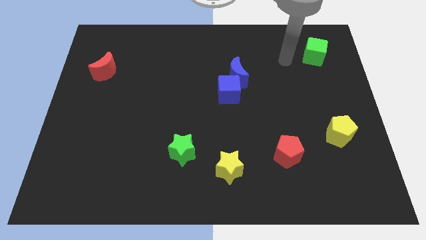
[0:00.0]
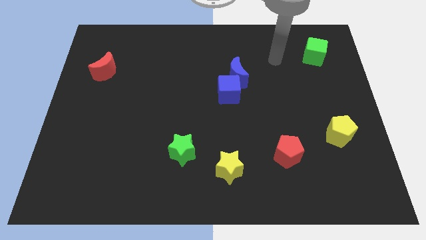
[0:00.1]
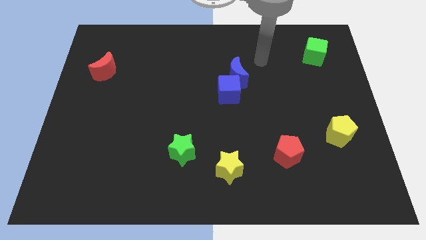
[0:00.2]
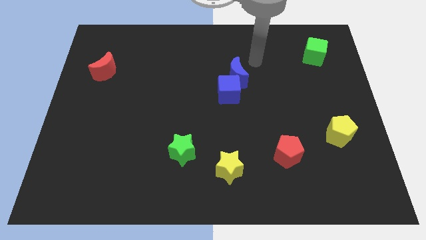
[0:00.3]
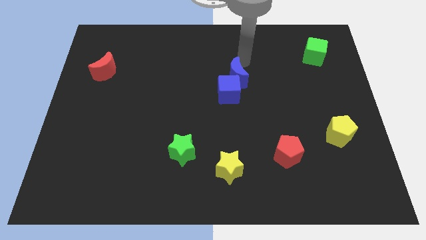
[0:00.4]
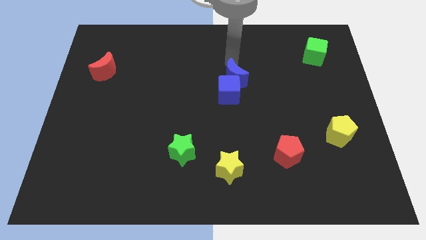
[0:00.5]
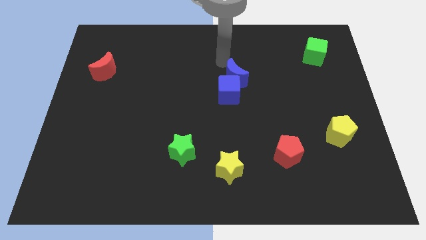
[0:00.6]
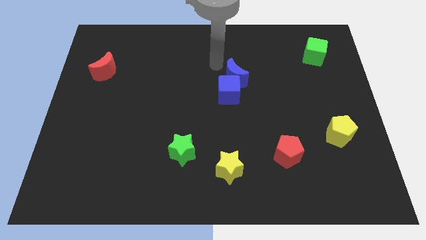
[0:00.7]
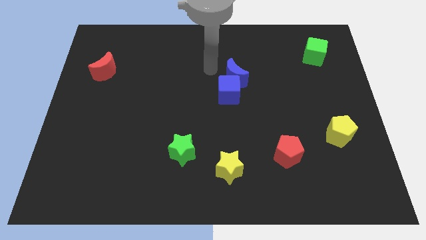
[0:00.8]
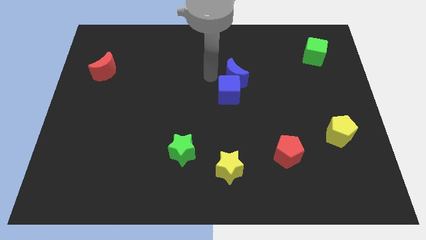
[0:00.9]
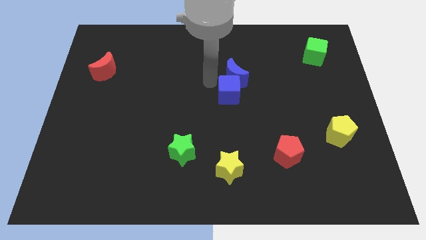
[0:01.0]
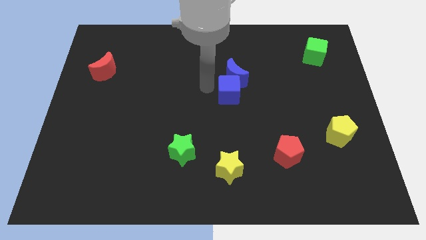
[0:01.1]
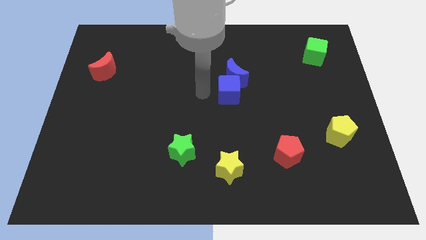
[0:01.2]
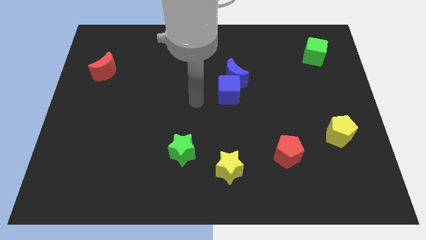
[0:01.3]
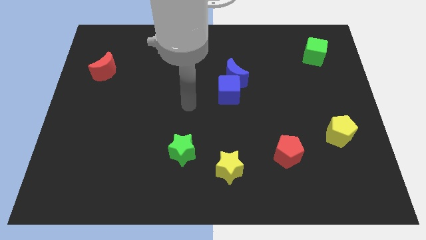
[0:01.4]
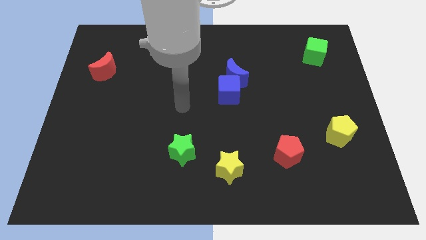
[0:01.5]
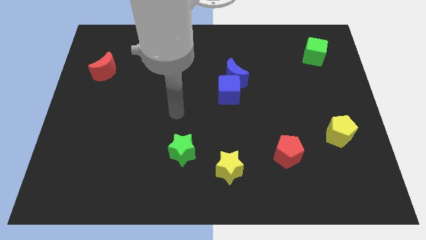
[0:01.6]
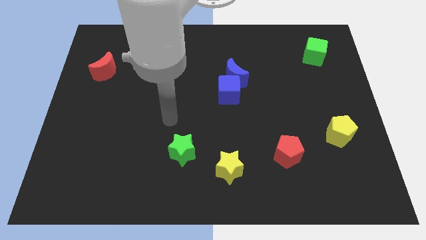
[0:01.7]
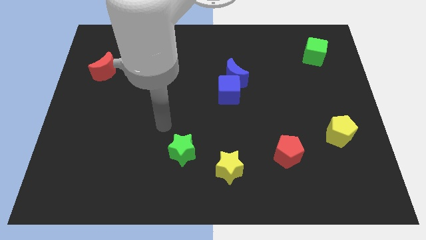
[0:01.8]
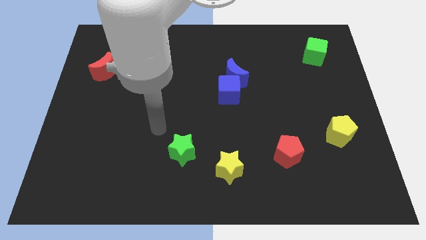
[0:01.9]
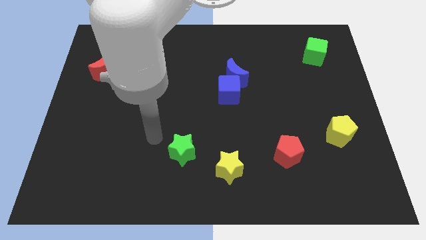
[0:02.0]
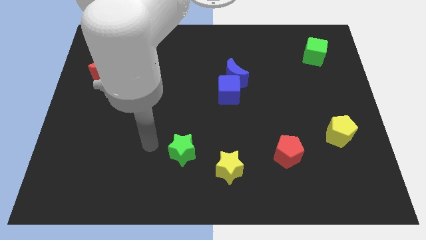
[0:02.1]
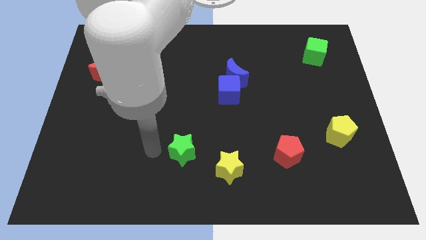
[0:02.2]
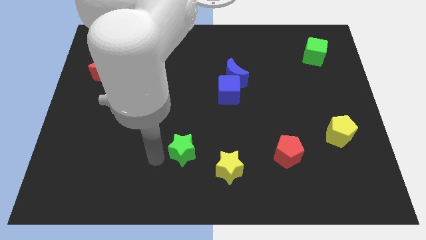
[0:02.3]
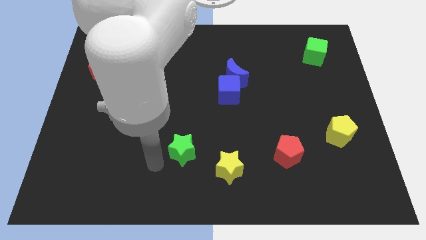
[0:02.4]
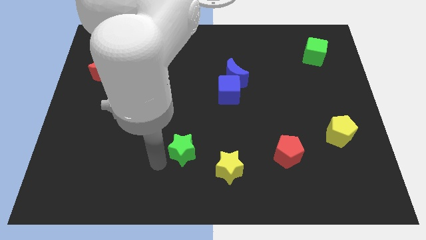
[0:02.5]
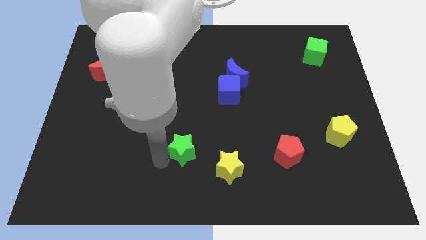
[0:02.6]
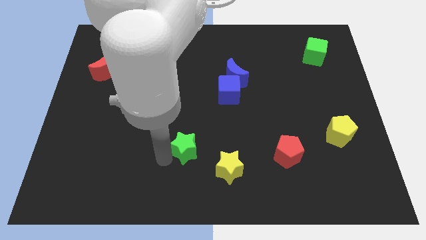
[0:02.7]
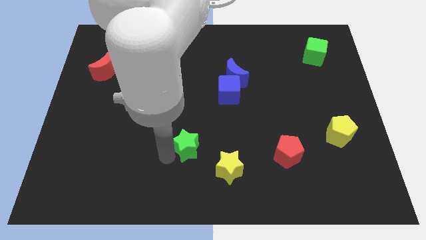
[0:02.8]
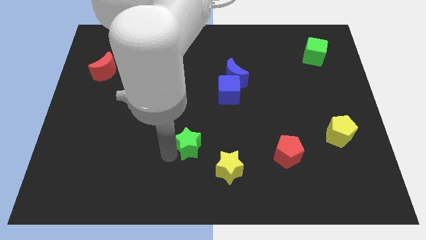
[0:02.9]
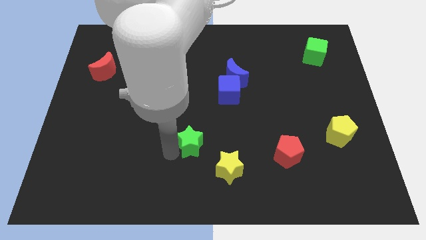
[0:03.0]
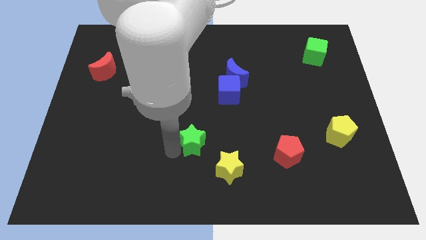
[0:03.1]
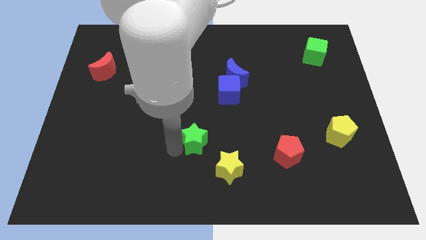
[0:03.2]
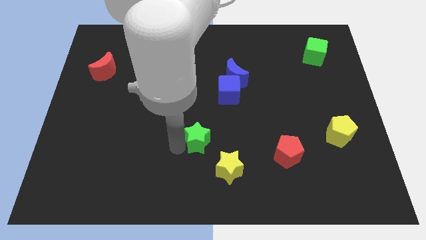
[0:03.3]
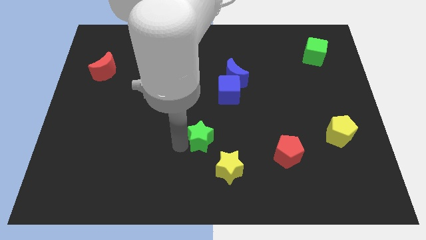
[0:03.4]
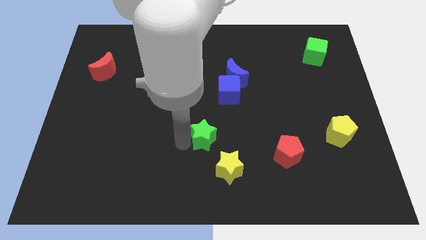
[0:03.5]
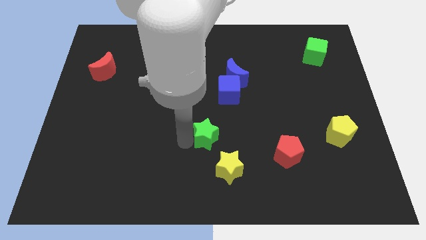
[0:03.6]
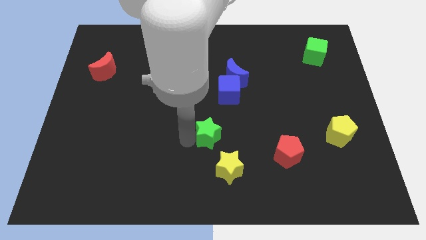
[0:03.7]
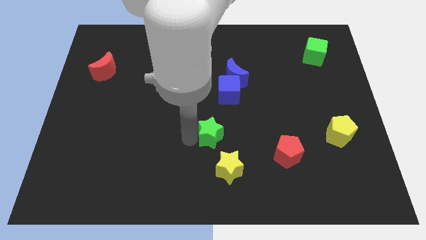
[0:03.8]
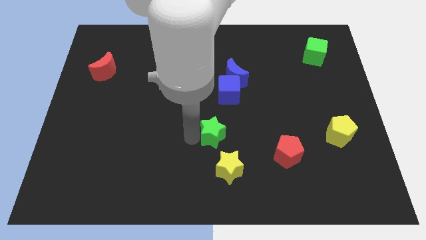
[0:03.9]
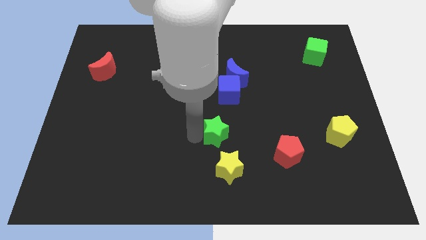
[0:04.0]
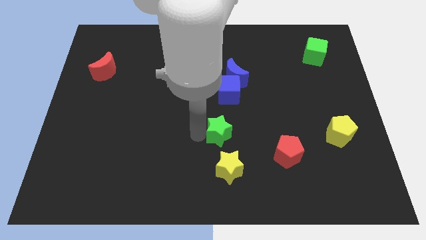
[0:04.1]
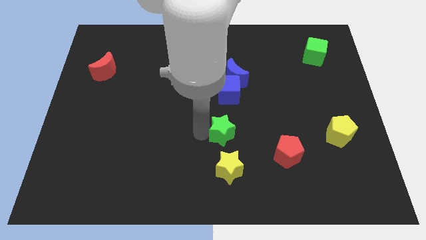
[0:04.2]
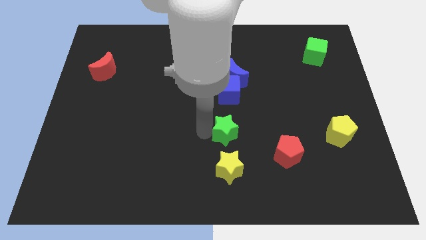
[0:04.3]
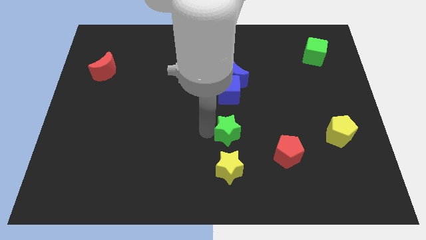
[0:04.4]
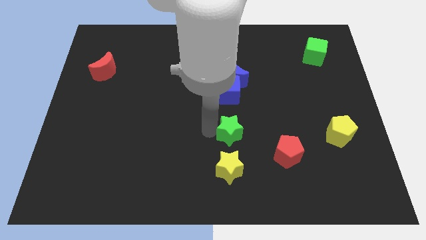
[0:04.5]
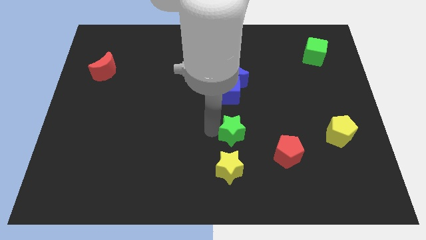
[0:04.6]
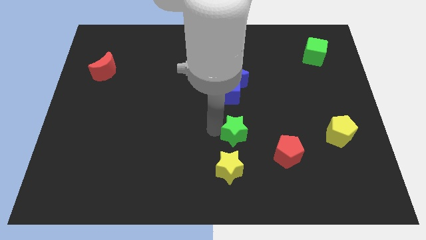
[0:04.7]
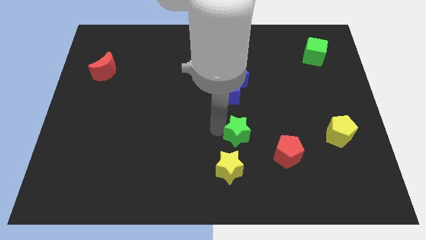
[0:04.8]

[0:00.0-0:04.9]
slide the green star diagonally up and to the left of the red pentagon

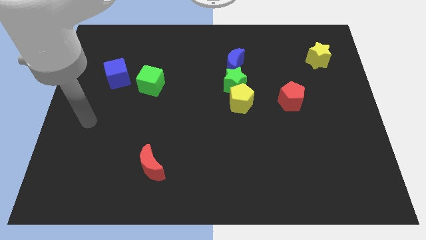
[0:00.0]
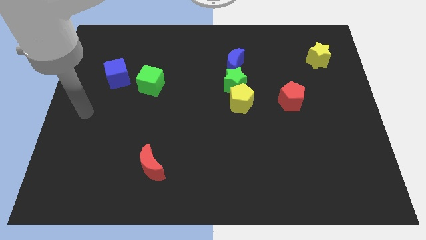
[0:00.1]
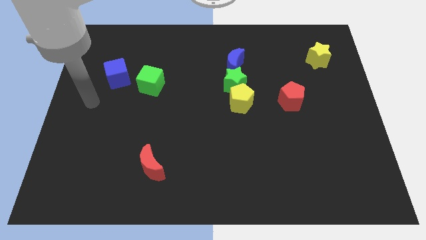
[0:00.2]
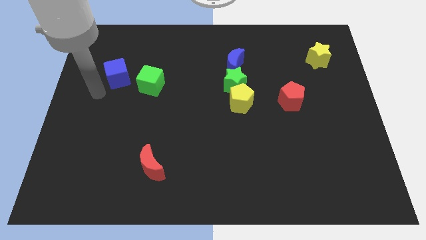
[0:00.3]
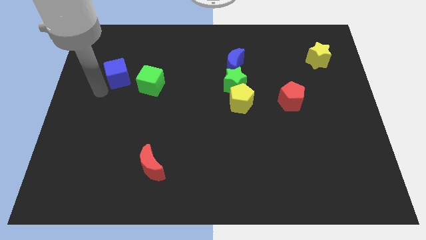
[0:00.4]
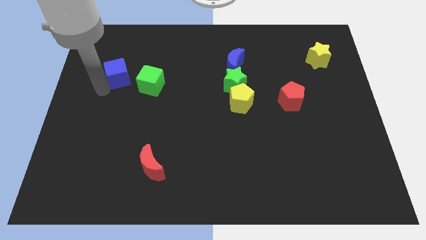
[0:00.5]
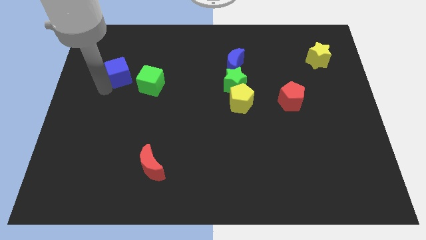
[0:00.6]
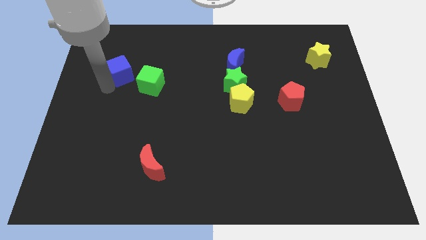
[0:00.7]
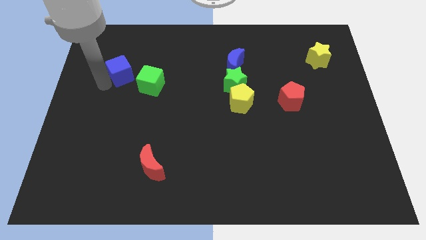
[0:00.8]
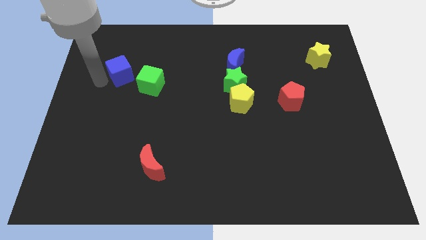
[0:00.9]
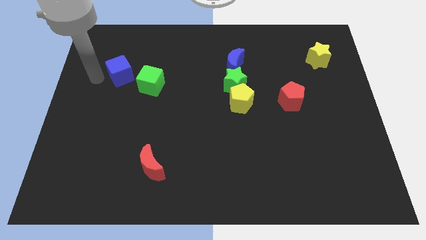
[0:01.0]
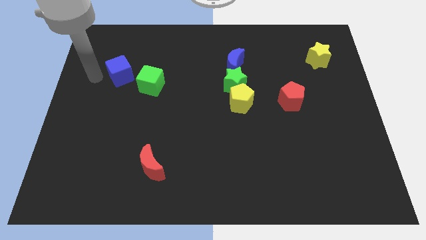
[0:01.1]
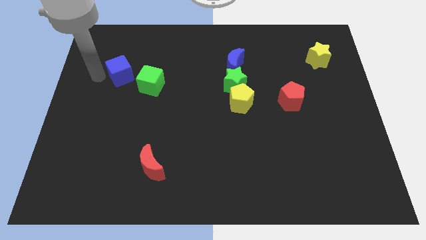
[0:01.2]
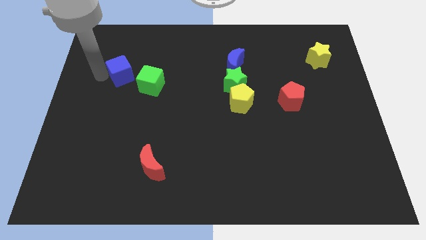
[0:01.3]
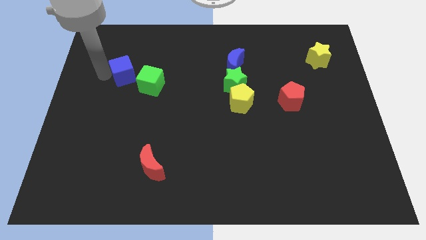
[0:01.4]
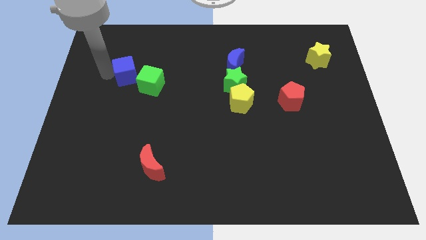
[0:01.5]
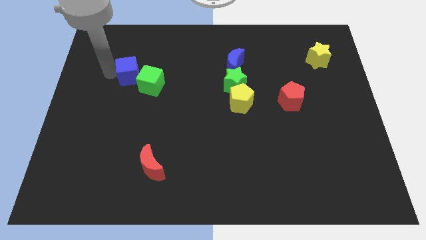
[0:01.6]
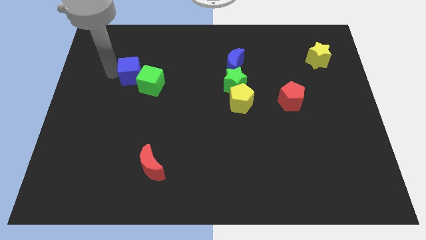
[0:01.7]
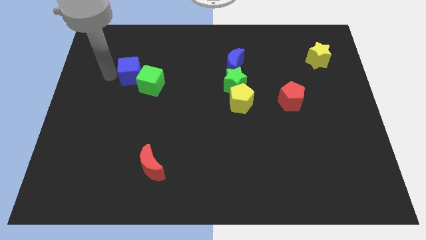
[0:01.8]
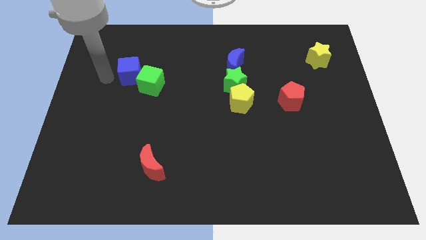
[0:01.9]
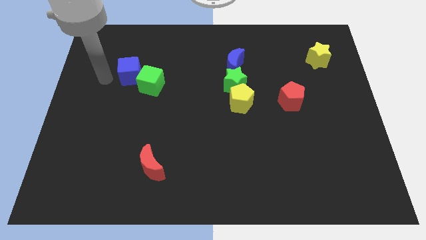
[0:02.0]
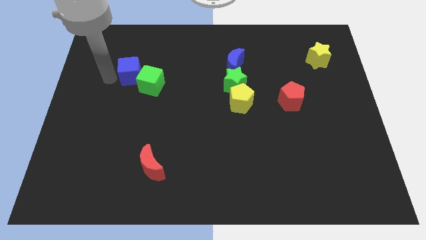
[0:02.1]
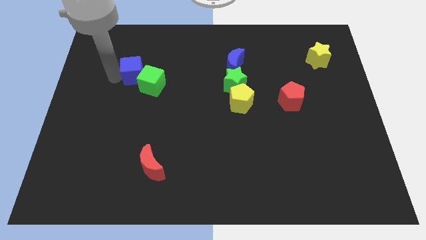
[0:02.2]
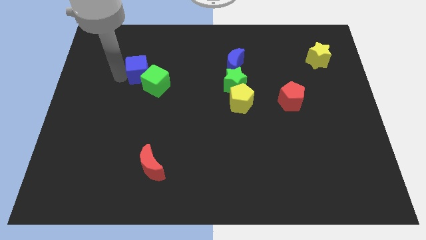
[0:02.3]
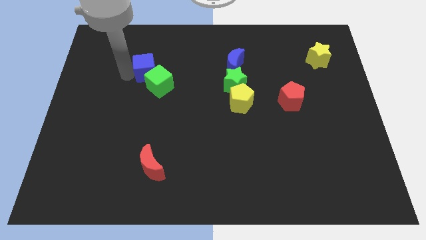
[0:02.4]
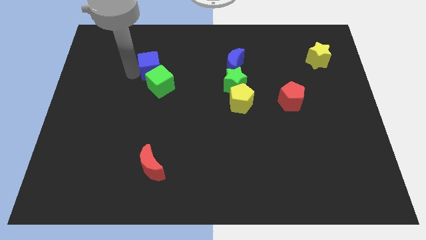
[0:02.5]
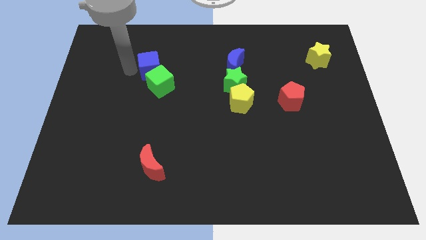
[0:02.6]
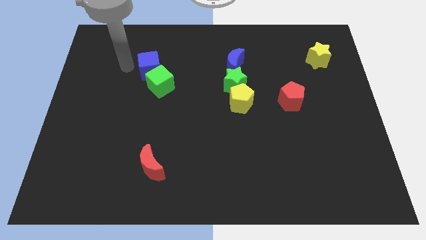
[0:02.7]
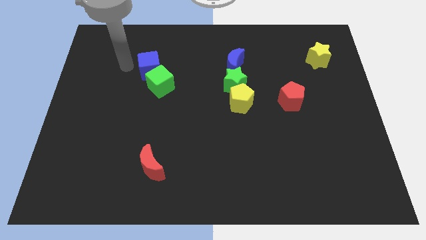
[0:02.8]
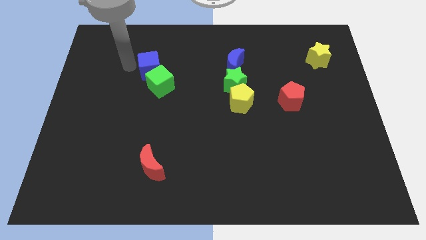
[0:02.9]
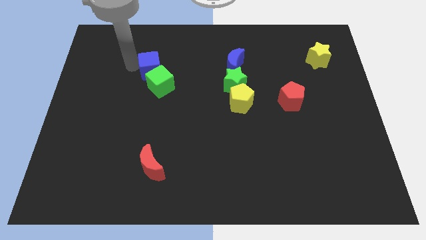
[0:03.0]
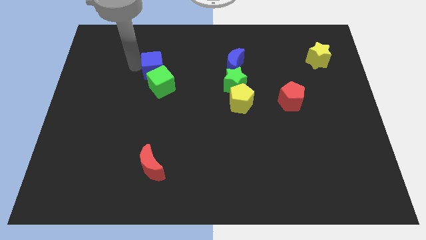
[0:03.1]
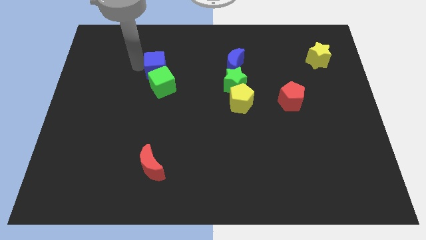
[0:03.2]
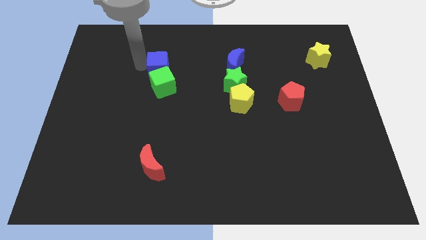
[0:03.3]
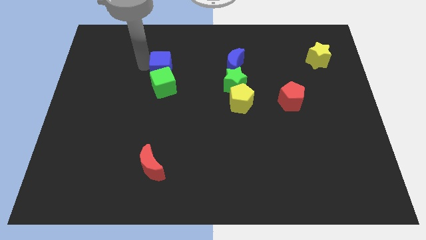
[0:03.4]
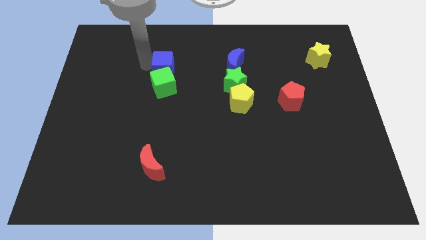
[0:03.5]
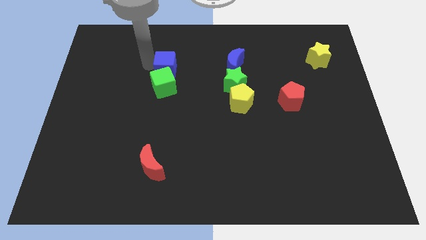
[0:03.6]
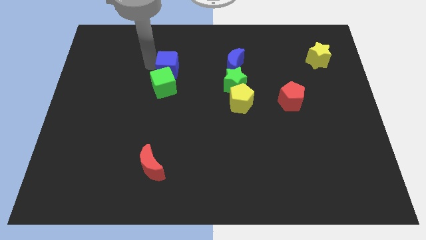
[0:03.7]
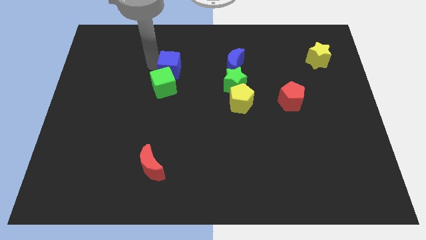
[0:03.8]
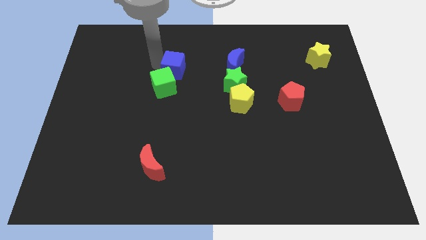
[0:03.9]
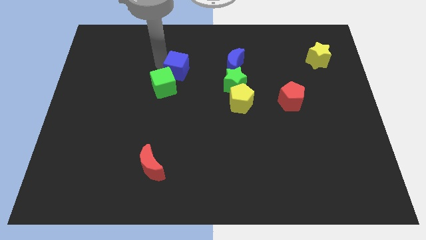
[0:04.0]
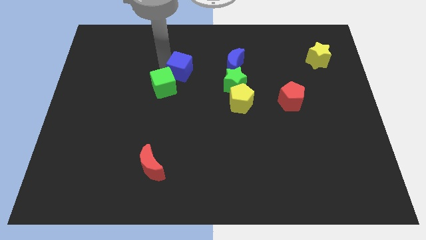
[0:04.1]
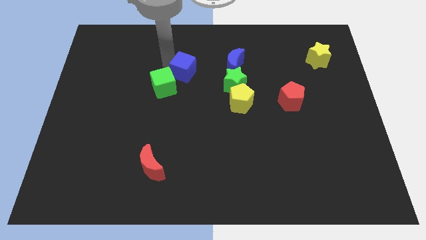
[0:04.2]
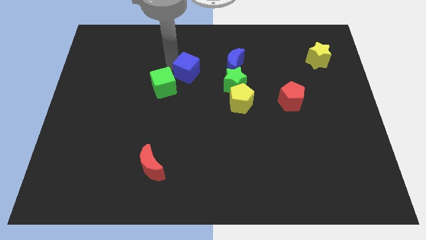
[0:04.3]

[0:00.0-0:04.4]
push the blue cube to the right side of the green cube
